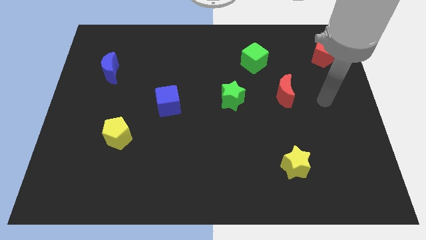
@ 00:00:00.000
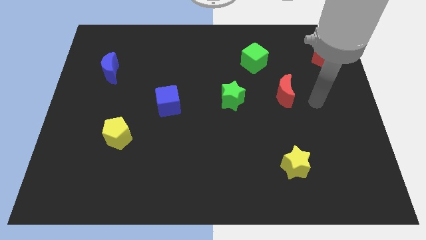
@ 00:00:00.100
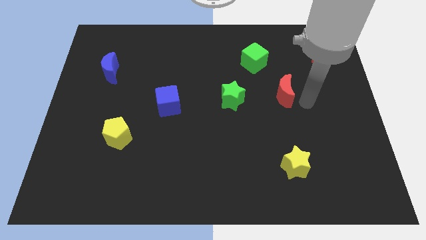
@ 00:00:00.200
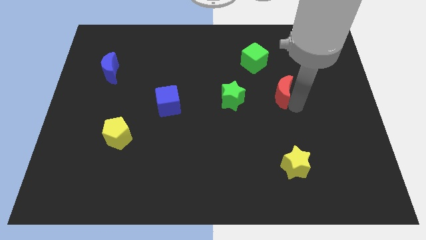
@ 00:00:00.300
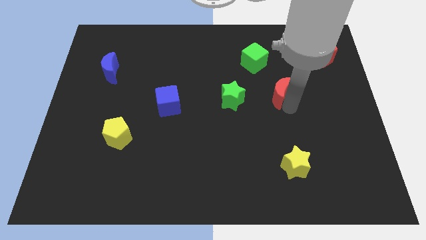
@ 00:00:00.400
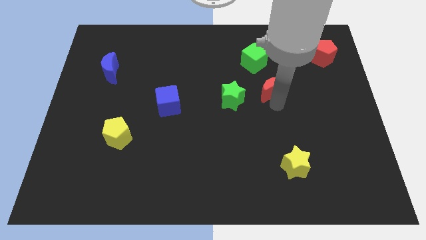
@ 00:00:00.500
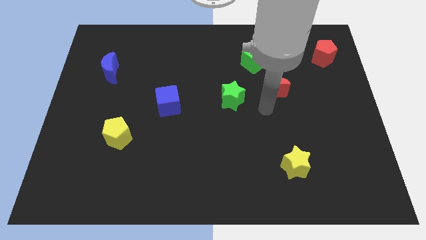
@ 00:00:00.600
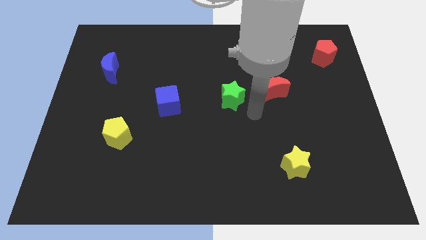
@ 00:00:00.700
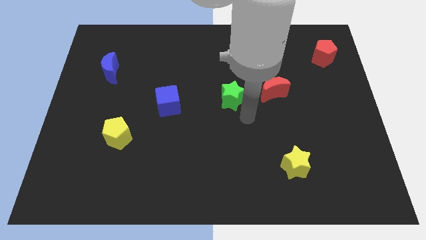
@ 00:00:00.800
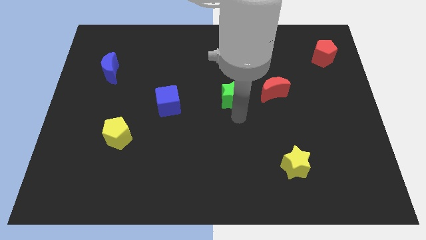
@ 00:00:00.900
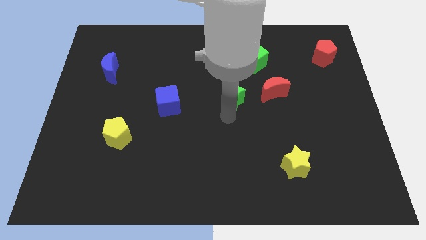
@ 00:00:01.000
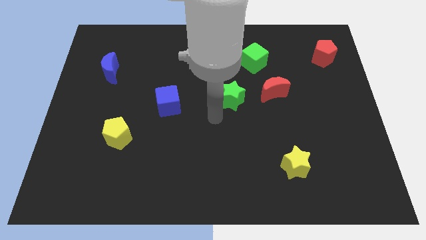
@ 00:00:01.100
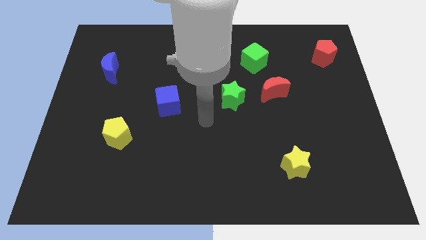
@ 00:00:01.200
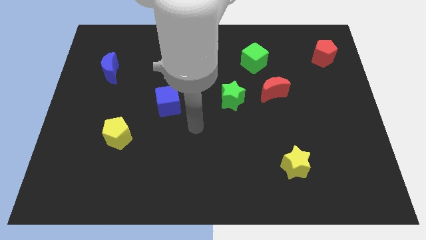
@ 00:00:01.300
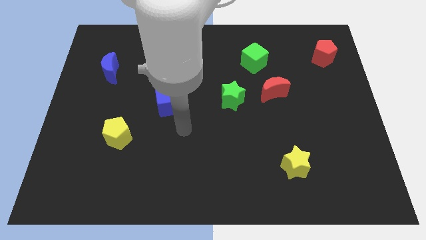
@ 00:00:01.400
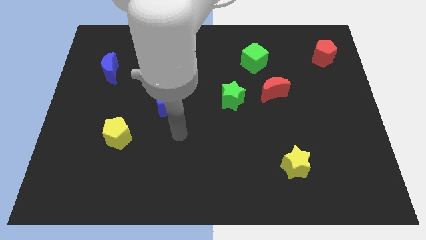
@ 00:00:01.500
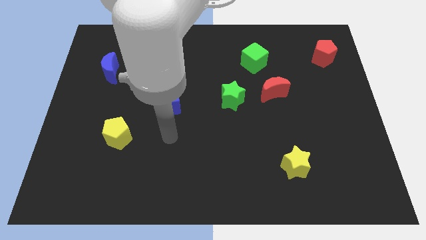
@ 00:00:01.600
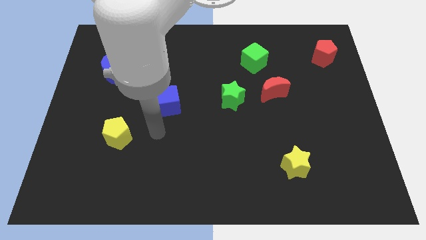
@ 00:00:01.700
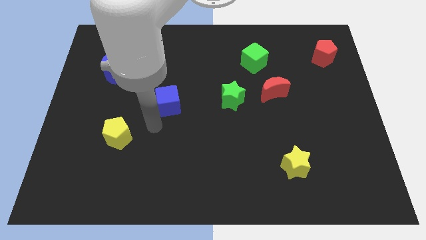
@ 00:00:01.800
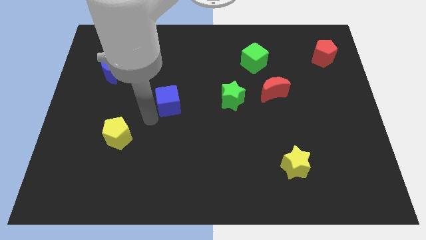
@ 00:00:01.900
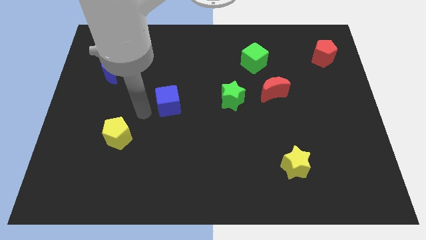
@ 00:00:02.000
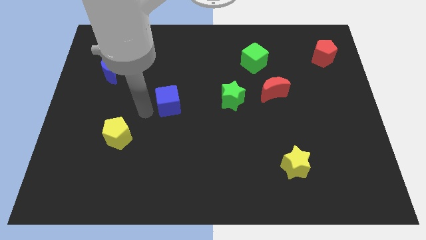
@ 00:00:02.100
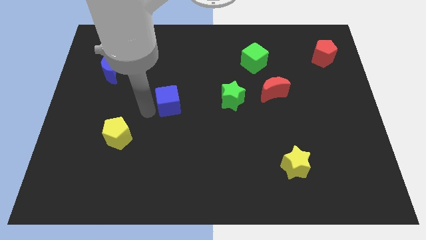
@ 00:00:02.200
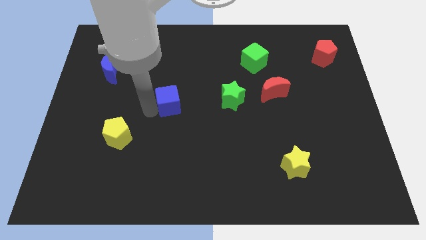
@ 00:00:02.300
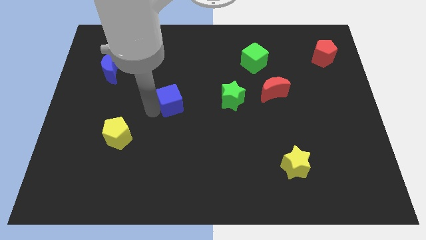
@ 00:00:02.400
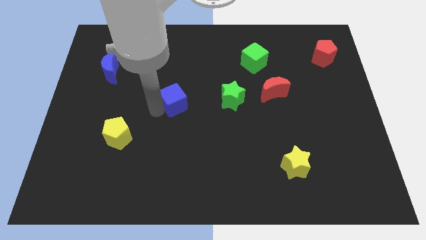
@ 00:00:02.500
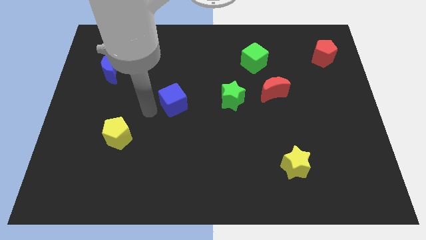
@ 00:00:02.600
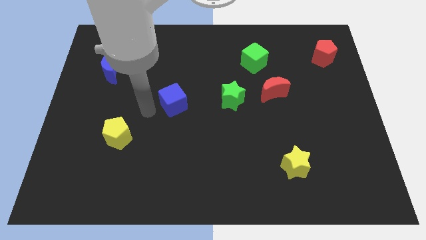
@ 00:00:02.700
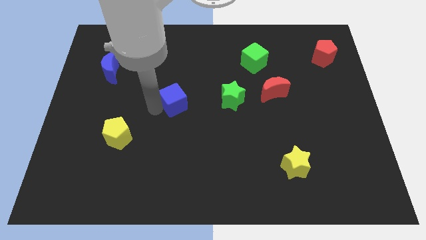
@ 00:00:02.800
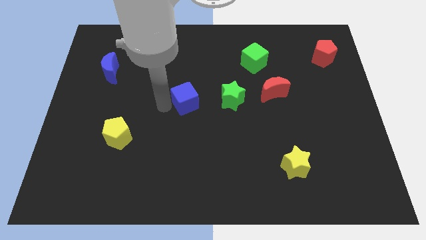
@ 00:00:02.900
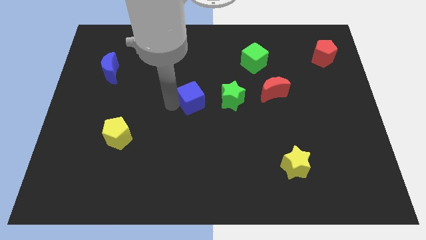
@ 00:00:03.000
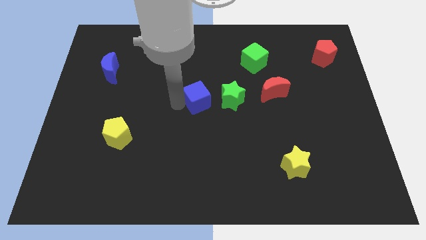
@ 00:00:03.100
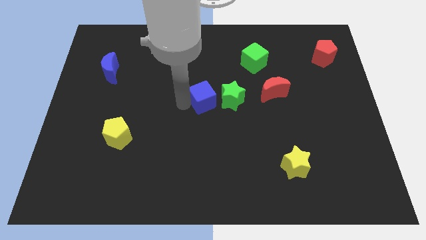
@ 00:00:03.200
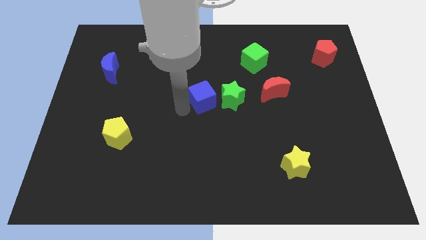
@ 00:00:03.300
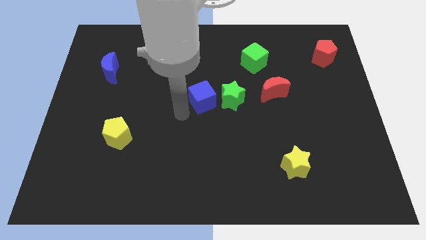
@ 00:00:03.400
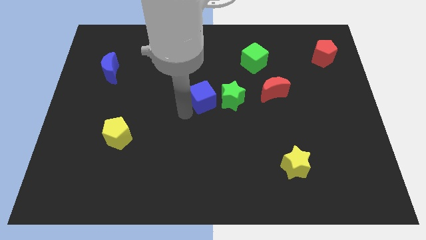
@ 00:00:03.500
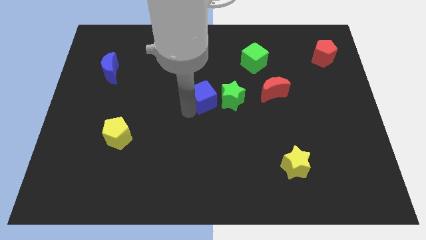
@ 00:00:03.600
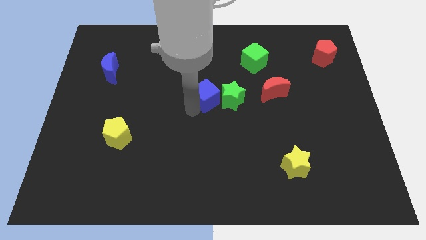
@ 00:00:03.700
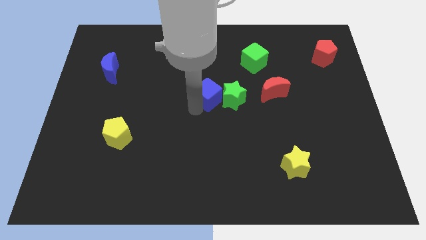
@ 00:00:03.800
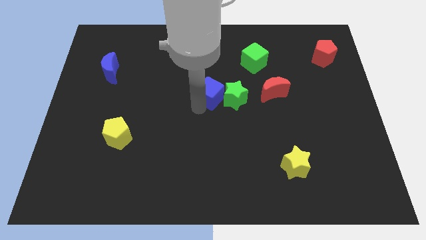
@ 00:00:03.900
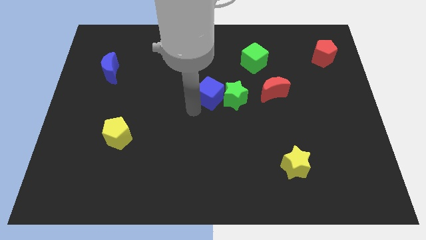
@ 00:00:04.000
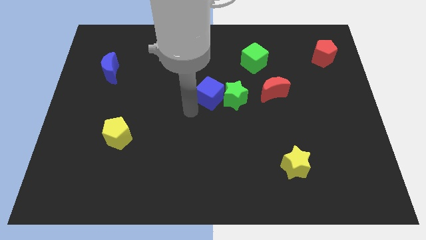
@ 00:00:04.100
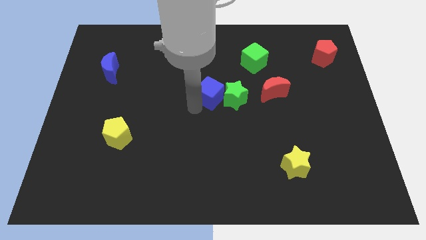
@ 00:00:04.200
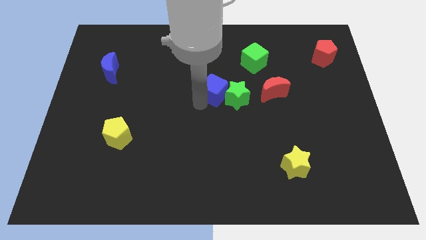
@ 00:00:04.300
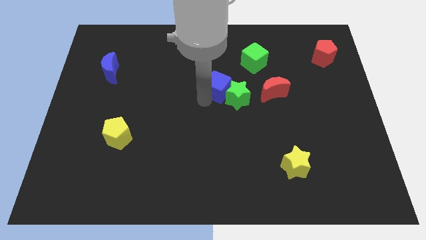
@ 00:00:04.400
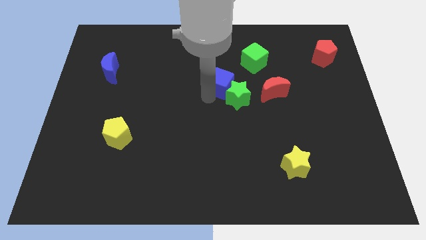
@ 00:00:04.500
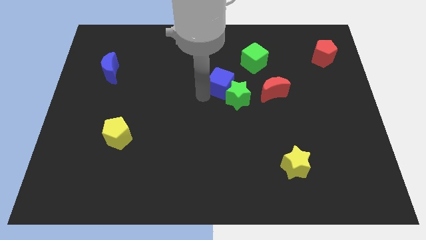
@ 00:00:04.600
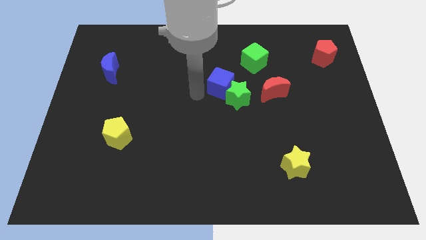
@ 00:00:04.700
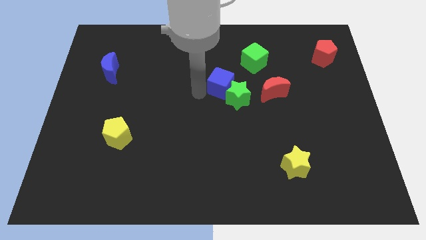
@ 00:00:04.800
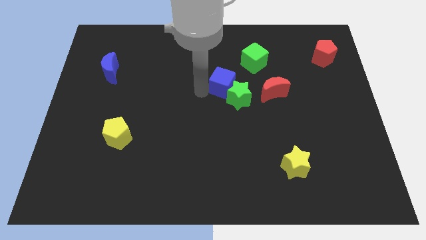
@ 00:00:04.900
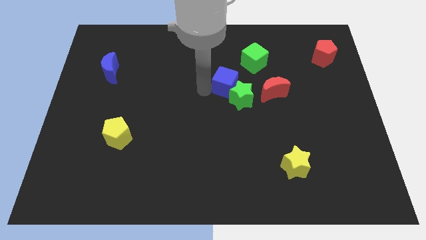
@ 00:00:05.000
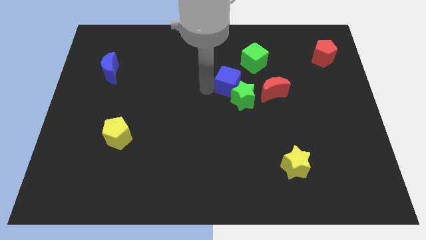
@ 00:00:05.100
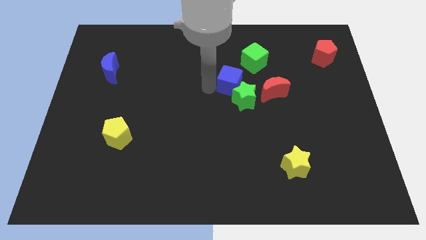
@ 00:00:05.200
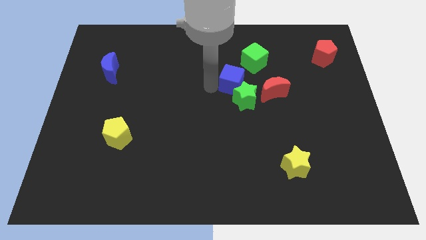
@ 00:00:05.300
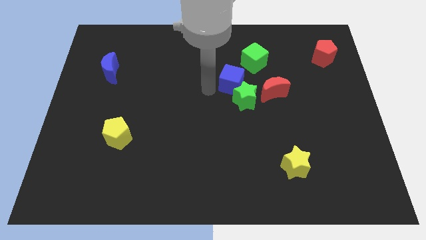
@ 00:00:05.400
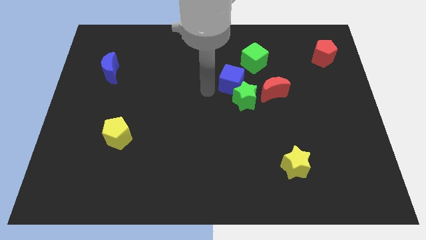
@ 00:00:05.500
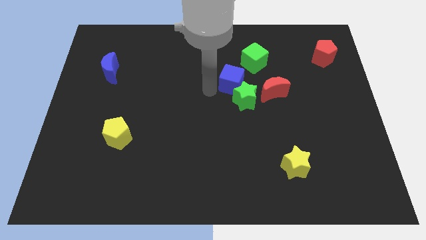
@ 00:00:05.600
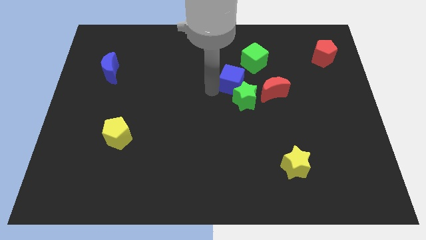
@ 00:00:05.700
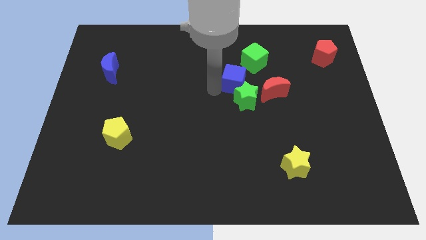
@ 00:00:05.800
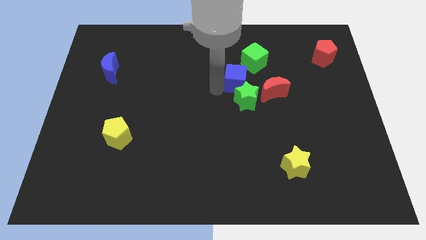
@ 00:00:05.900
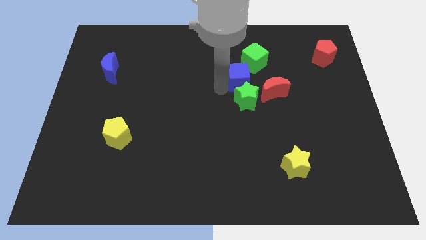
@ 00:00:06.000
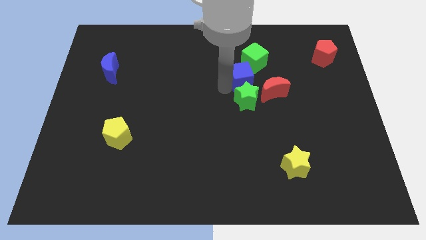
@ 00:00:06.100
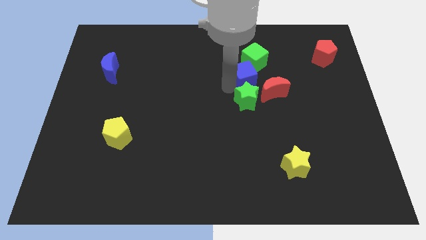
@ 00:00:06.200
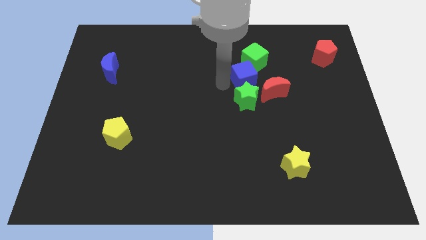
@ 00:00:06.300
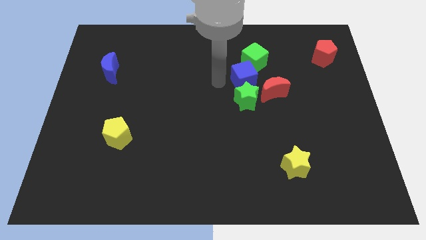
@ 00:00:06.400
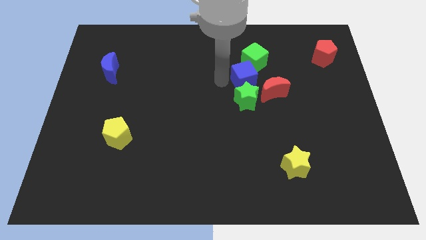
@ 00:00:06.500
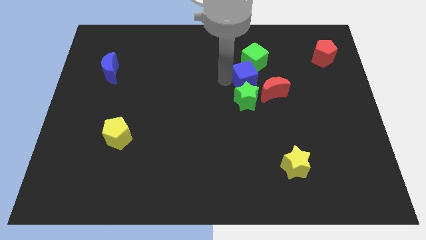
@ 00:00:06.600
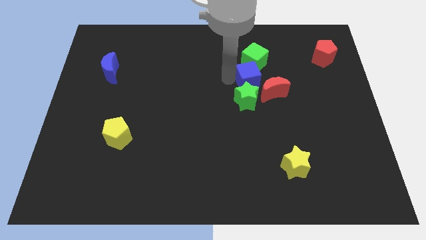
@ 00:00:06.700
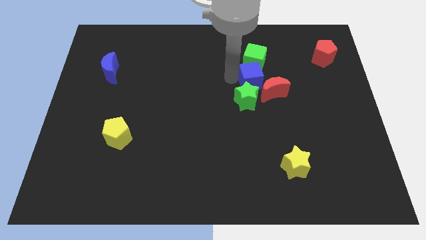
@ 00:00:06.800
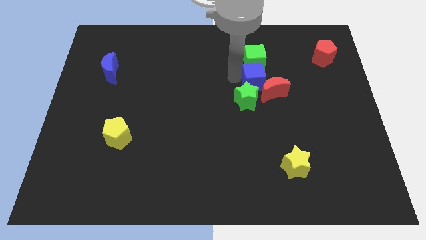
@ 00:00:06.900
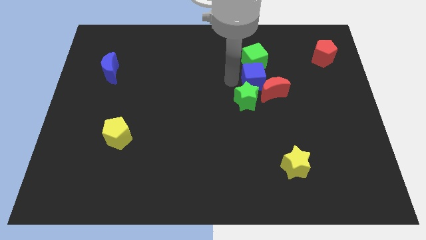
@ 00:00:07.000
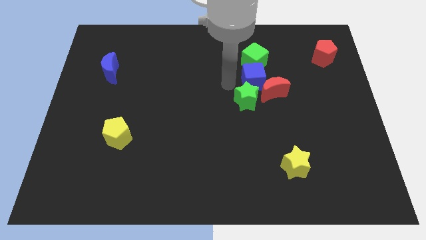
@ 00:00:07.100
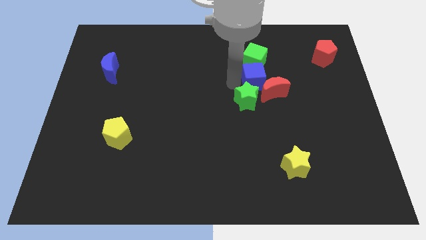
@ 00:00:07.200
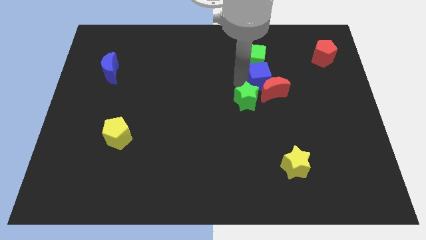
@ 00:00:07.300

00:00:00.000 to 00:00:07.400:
move the blue cube diagonally down and to the right of the green cube
